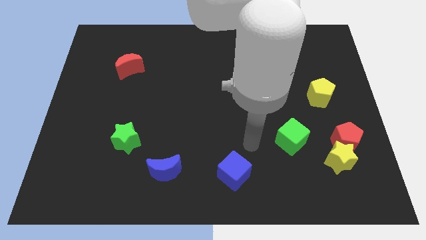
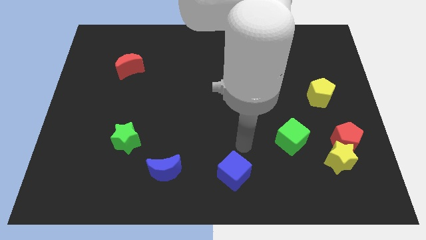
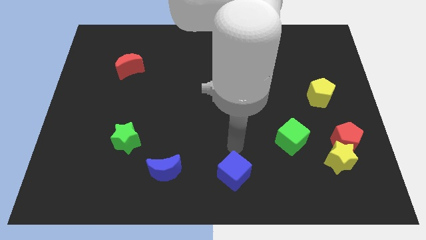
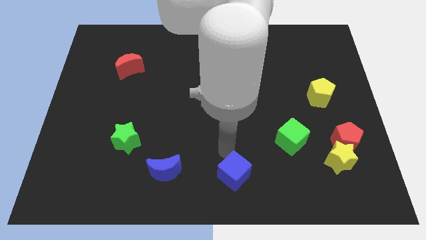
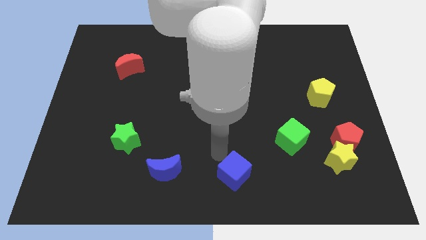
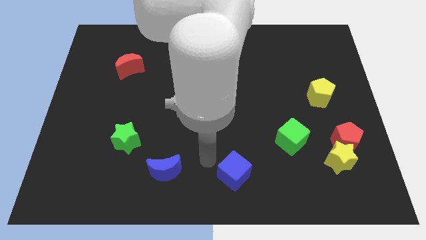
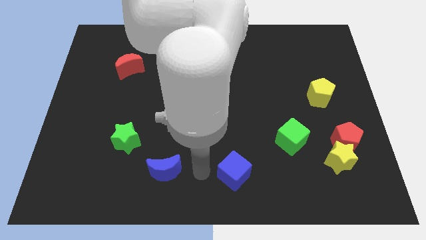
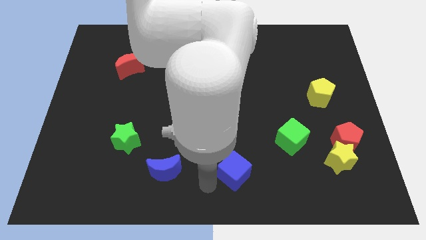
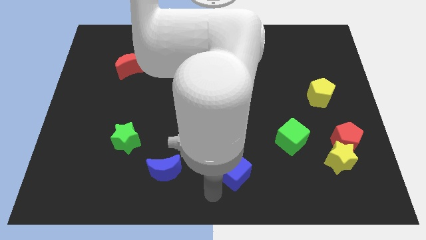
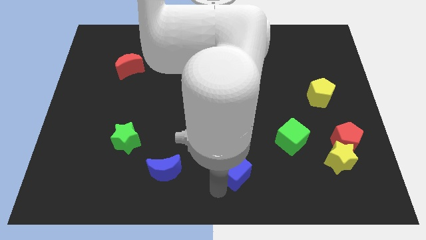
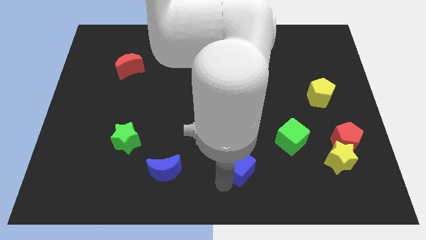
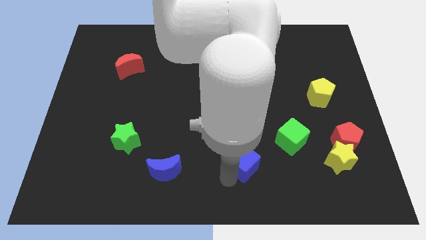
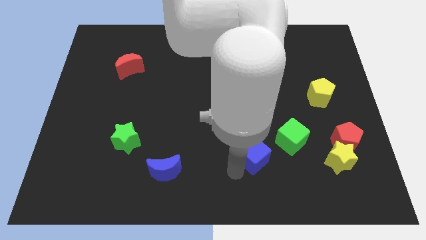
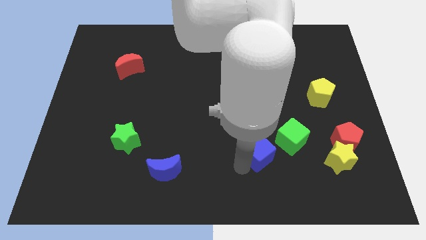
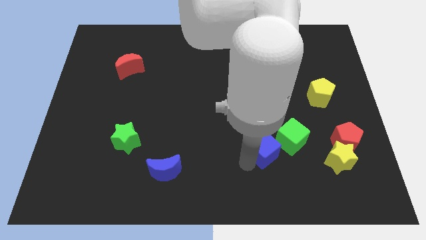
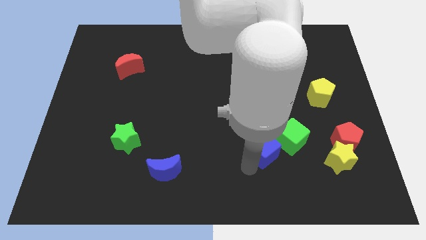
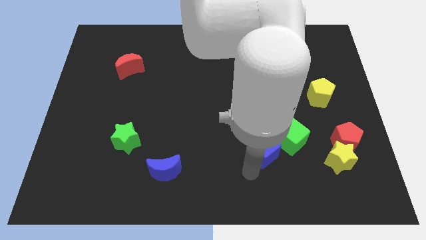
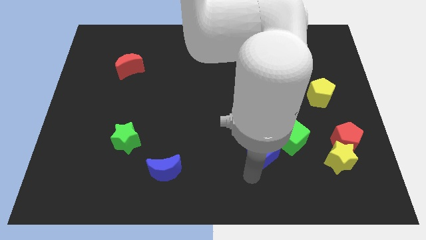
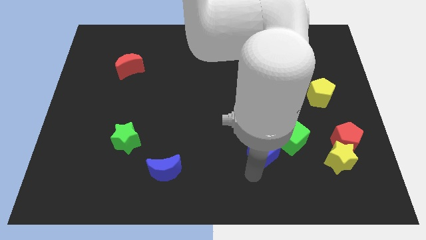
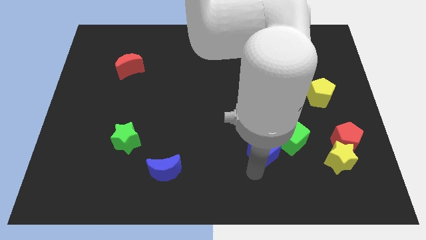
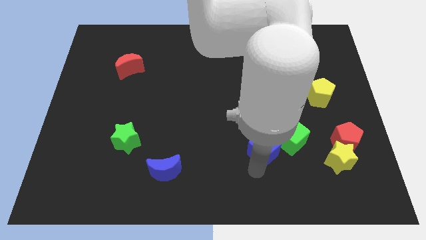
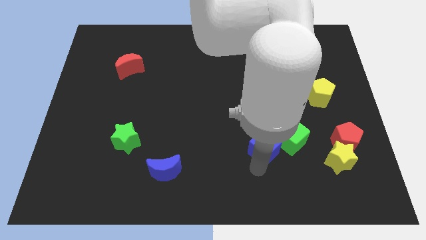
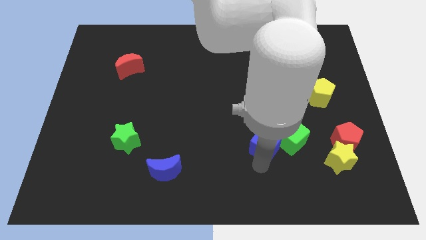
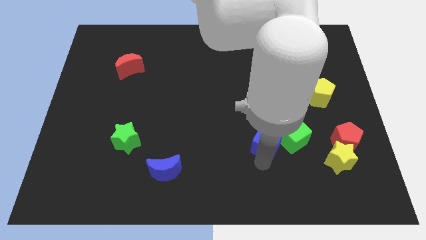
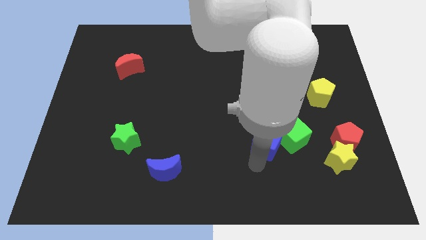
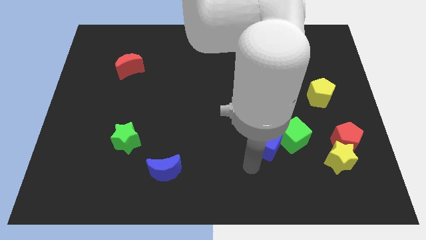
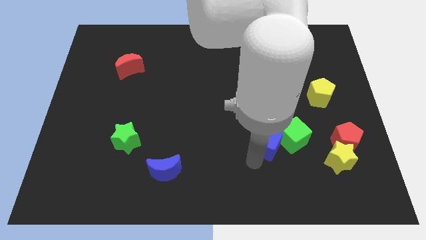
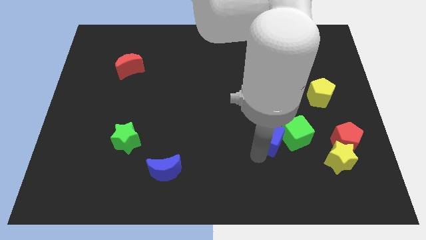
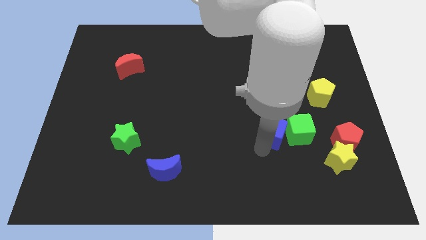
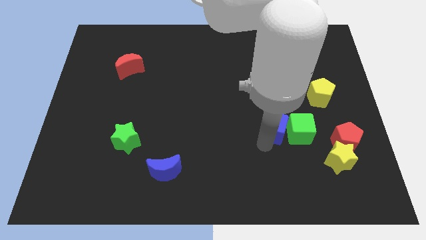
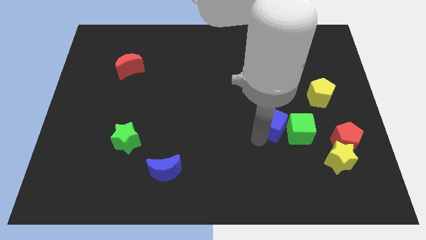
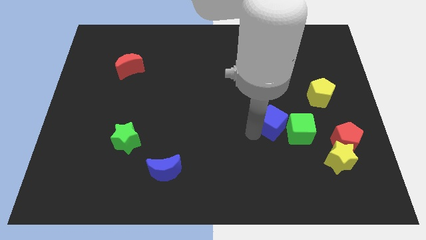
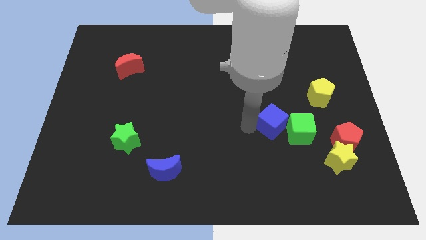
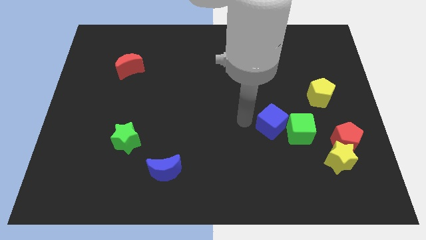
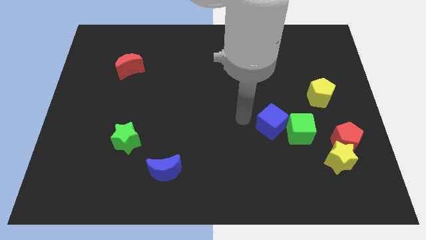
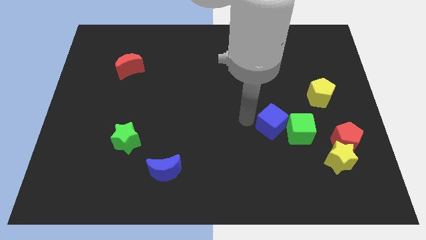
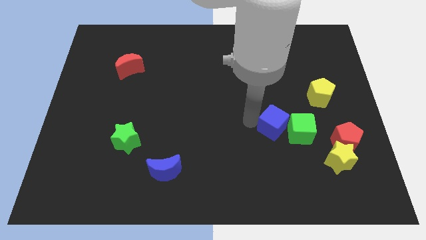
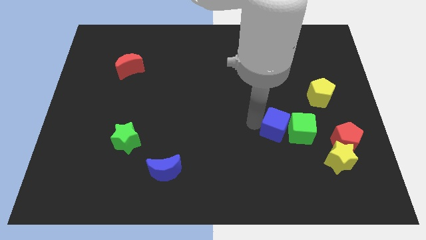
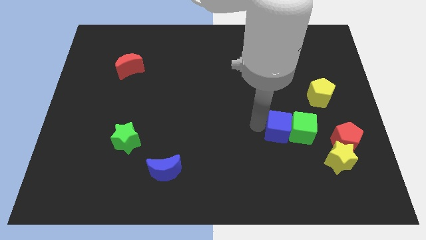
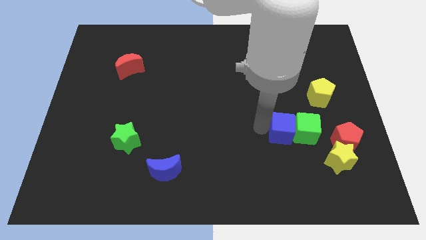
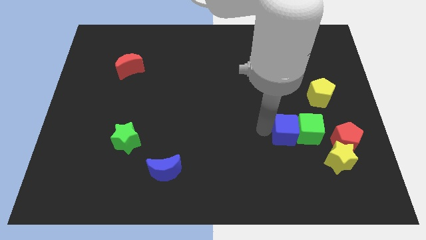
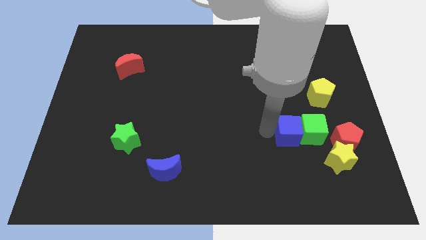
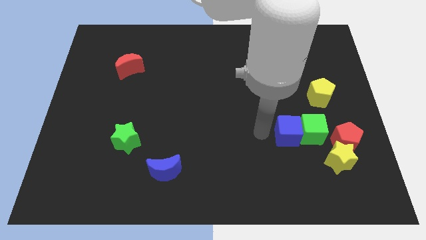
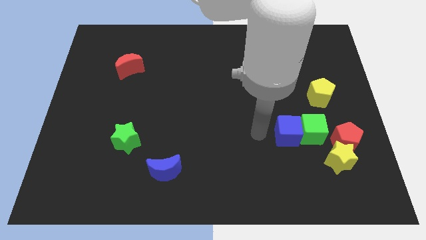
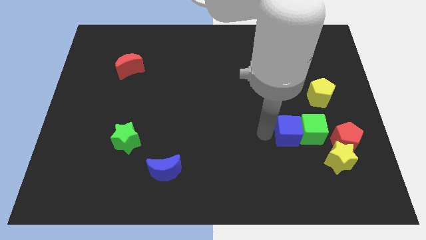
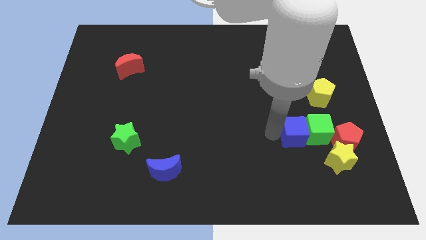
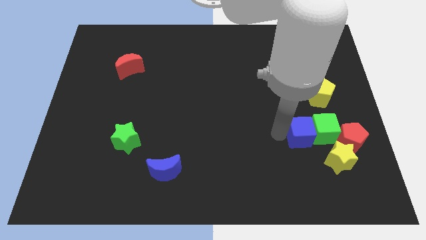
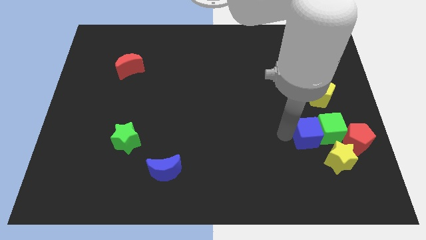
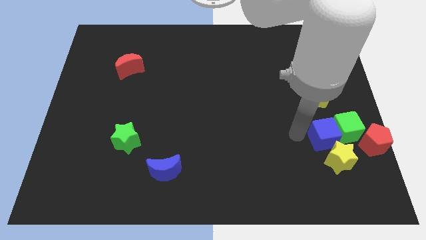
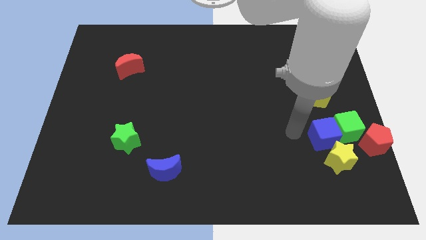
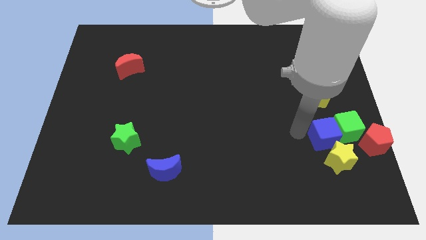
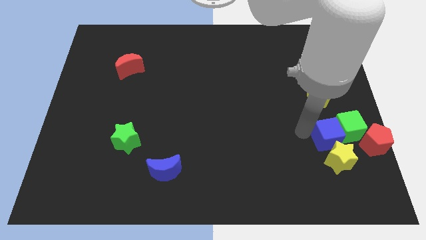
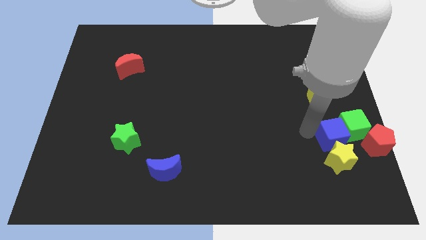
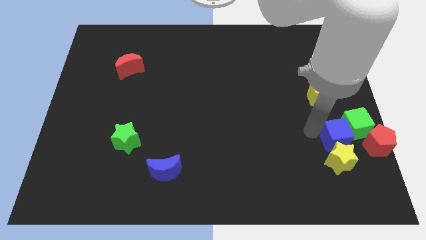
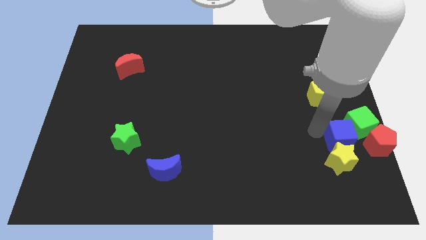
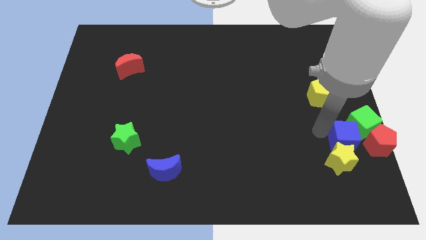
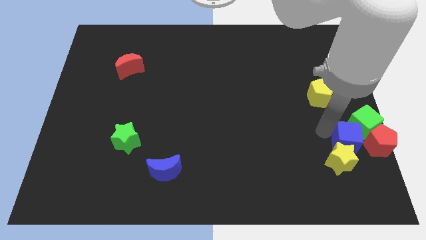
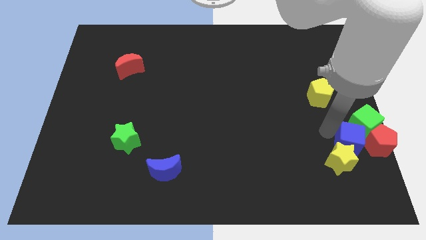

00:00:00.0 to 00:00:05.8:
push the blue cube towards the red pentagon

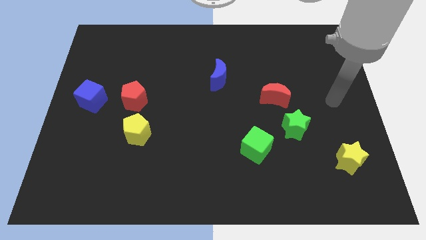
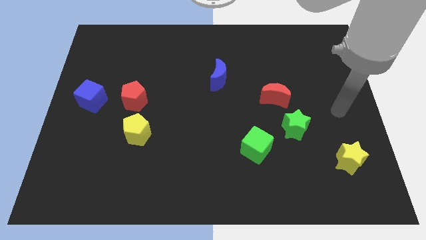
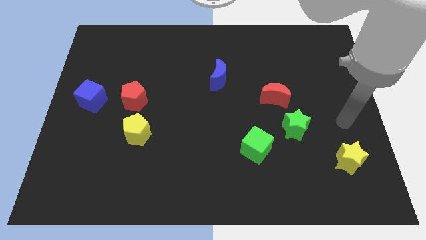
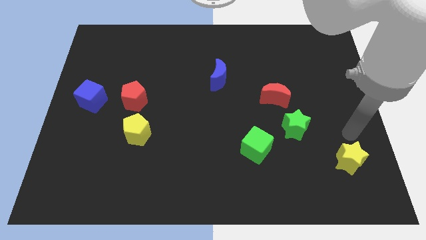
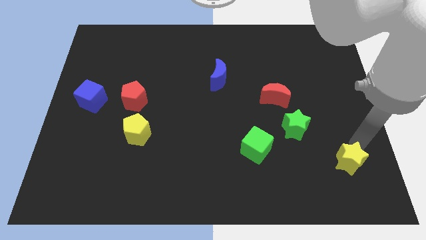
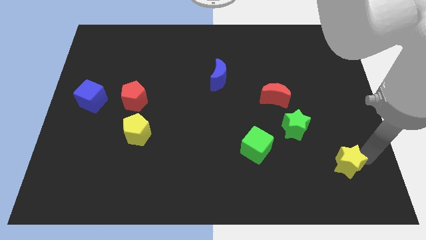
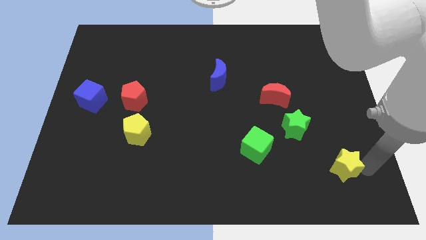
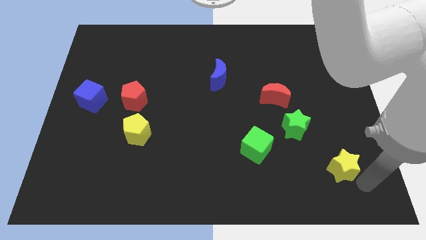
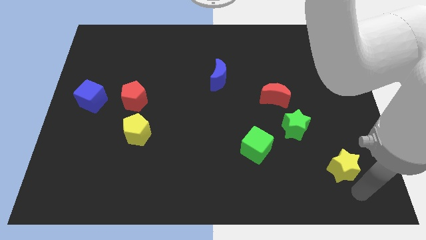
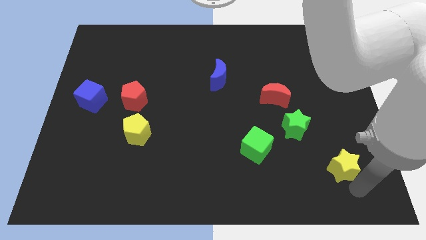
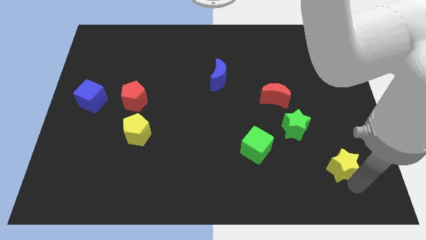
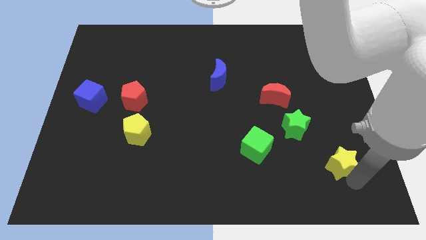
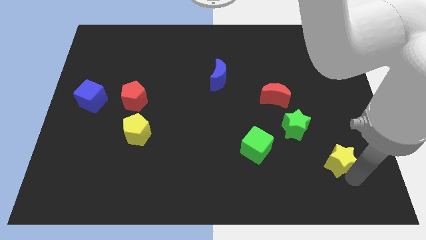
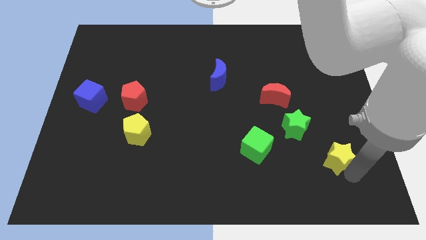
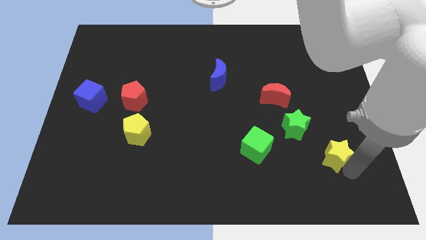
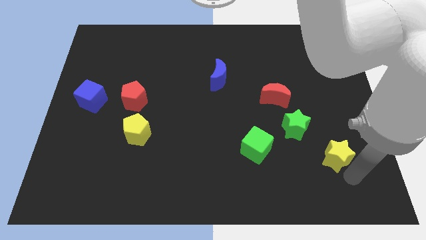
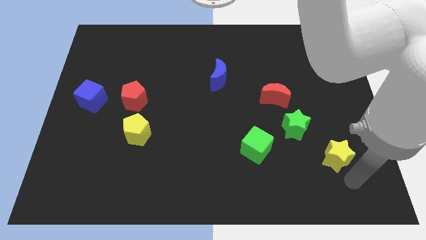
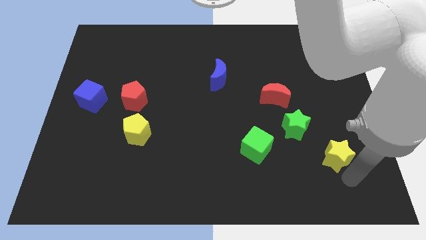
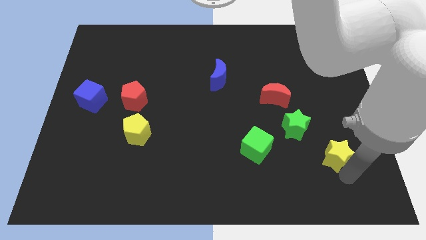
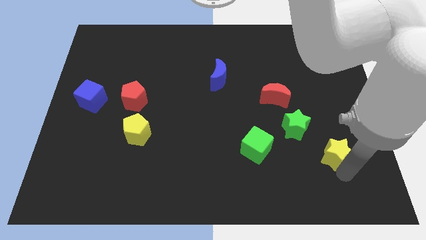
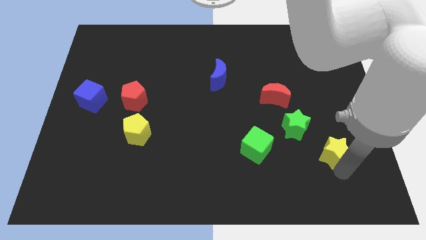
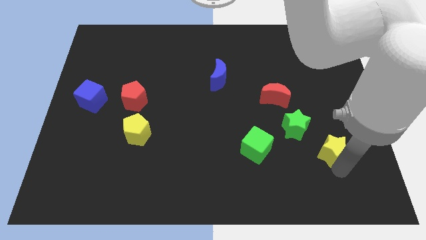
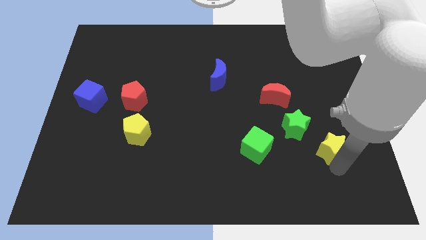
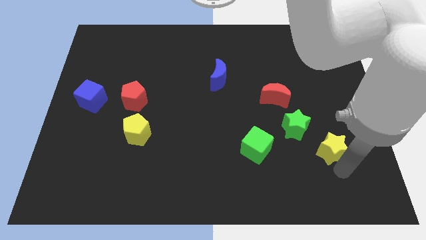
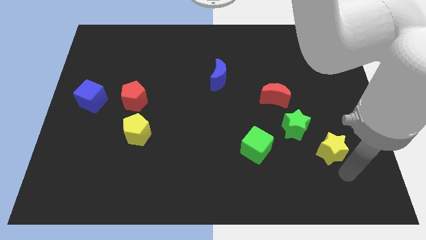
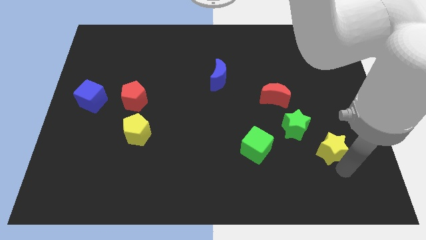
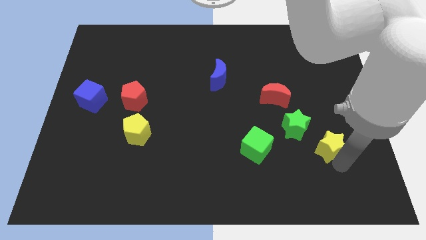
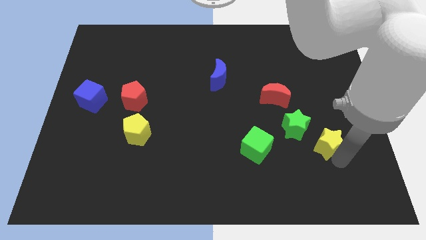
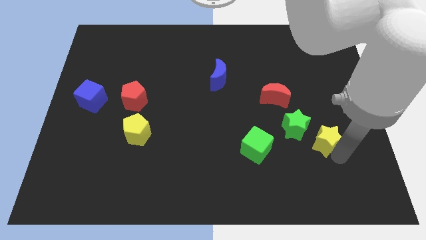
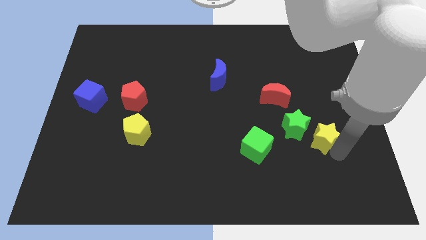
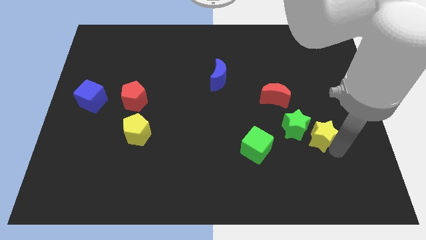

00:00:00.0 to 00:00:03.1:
slide the yellow star close to the green star
